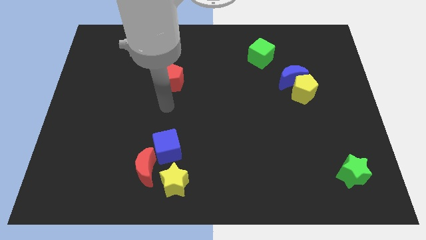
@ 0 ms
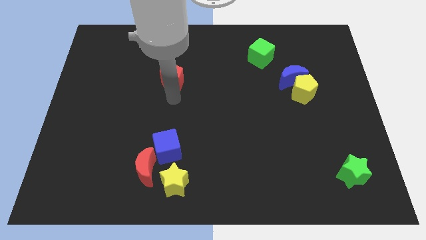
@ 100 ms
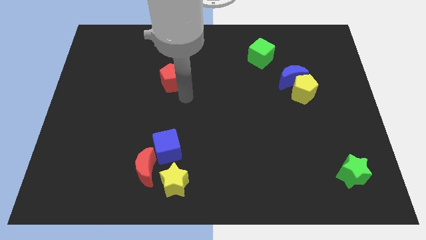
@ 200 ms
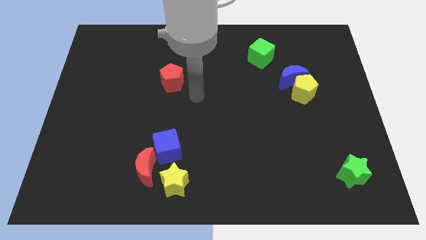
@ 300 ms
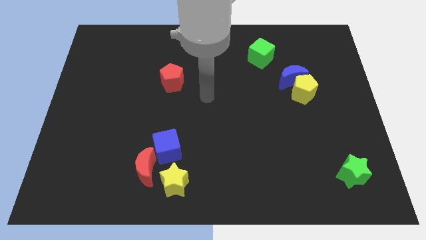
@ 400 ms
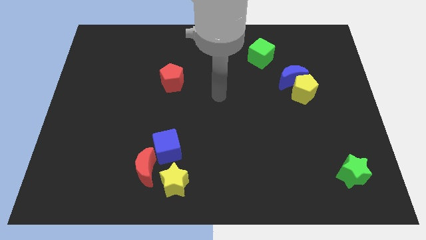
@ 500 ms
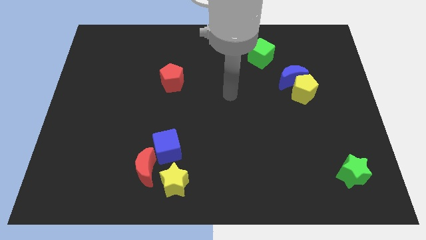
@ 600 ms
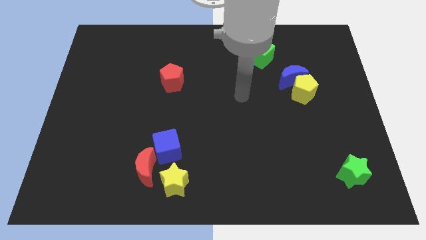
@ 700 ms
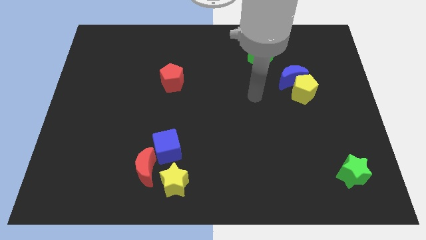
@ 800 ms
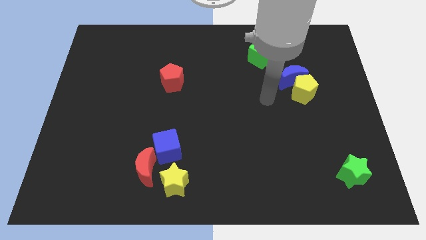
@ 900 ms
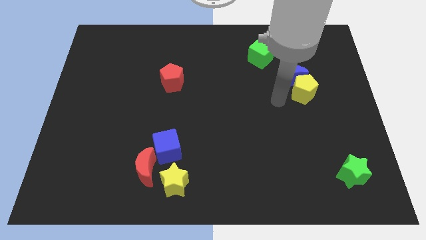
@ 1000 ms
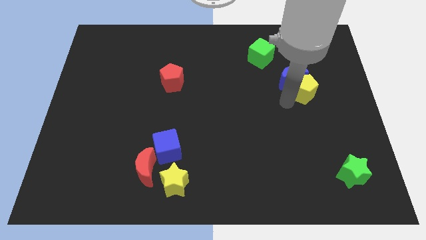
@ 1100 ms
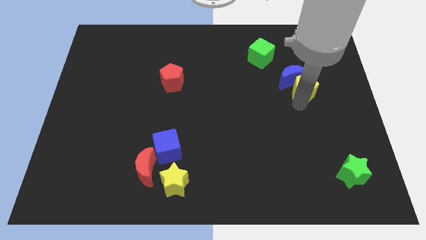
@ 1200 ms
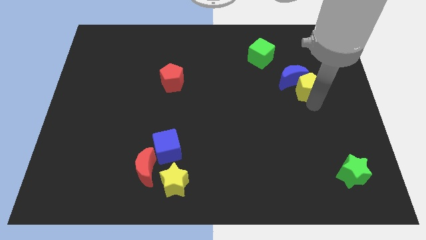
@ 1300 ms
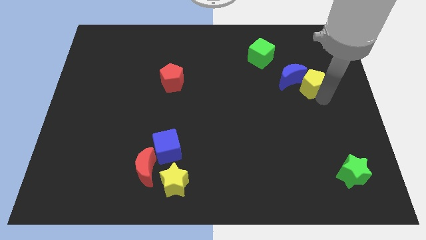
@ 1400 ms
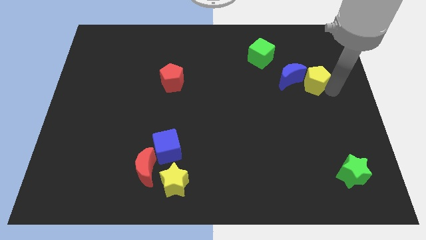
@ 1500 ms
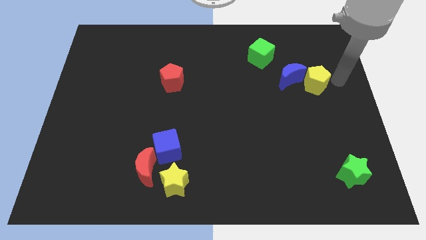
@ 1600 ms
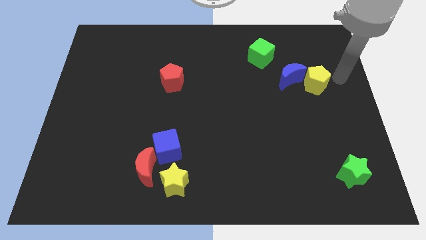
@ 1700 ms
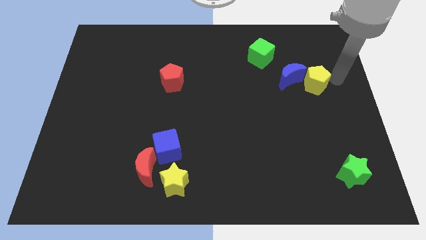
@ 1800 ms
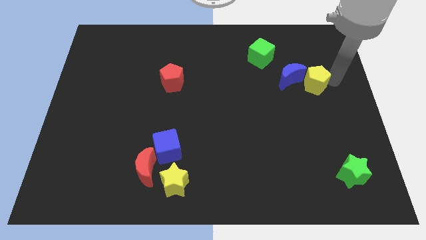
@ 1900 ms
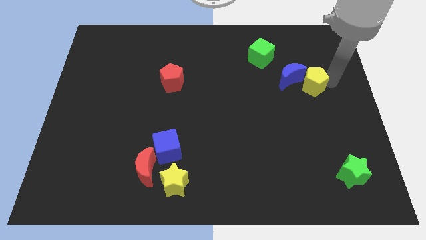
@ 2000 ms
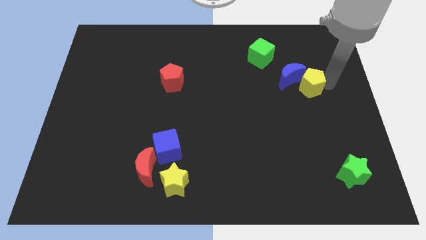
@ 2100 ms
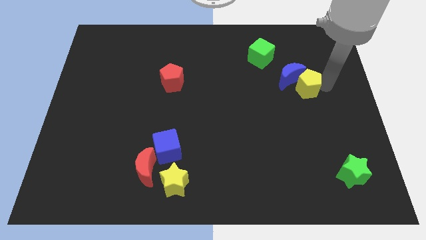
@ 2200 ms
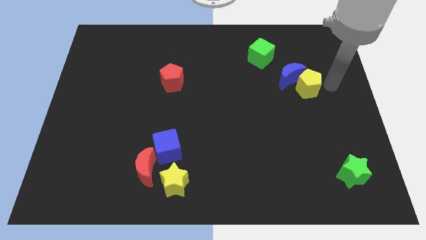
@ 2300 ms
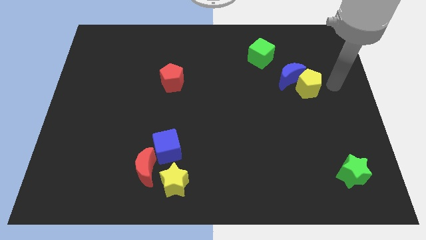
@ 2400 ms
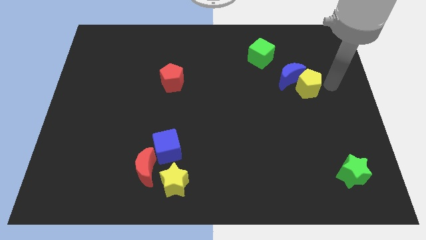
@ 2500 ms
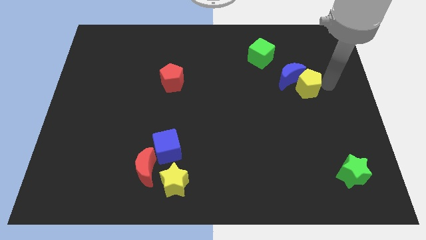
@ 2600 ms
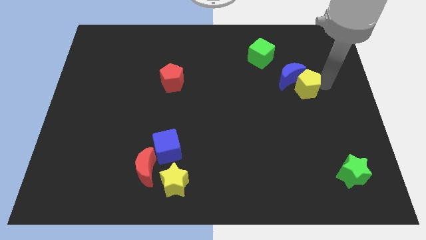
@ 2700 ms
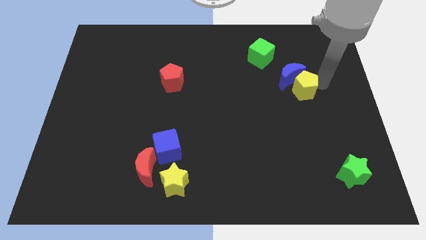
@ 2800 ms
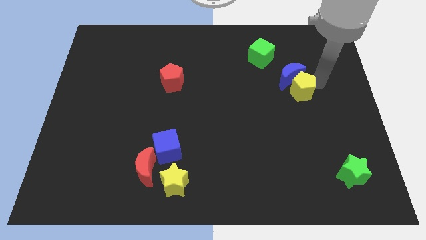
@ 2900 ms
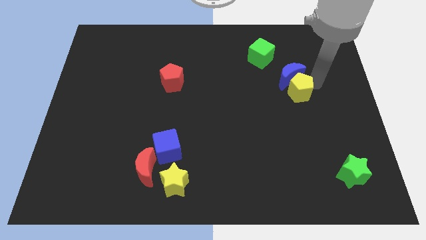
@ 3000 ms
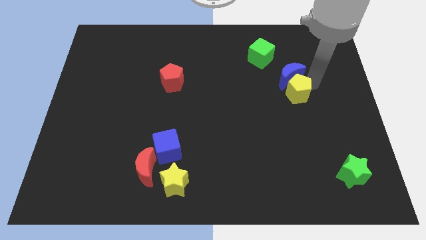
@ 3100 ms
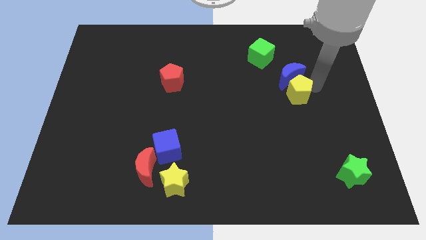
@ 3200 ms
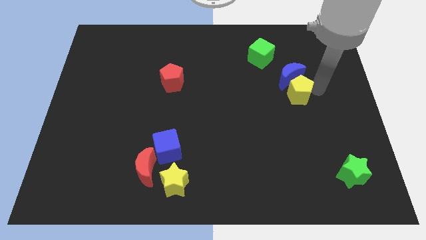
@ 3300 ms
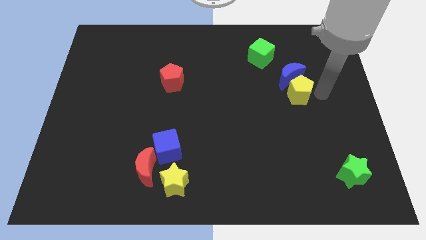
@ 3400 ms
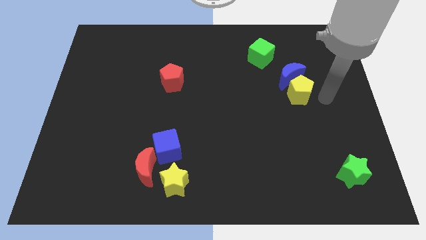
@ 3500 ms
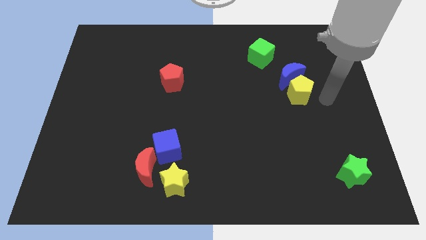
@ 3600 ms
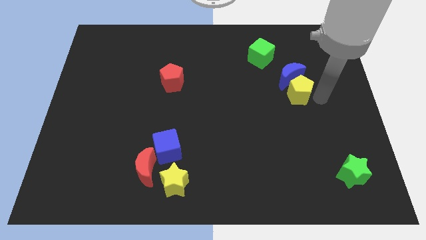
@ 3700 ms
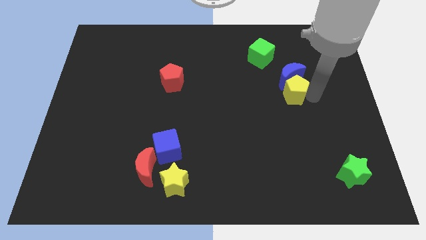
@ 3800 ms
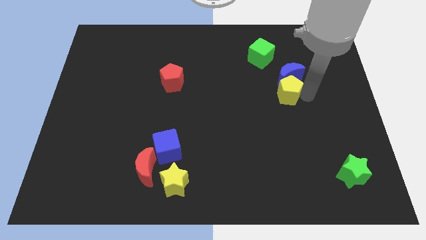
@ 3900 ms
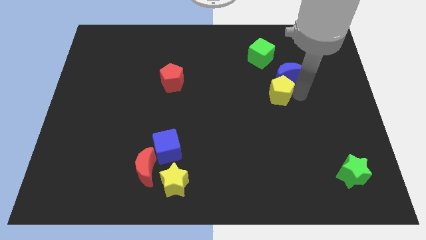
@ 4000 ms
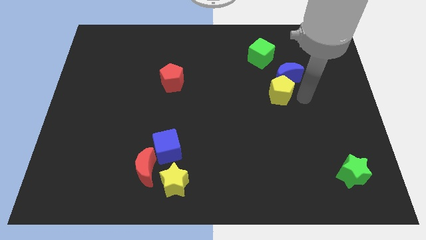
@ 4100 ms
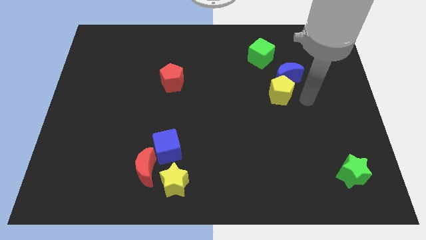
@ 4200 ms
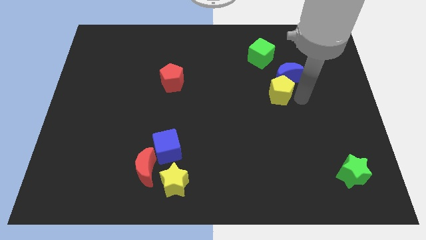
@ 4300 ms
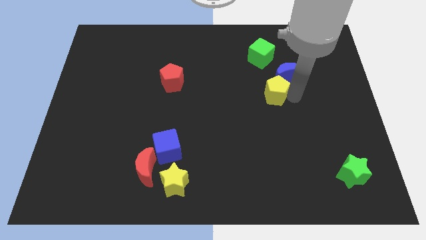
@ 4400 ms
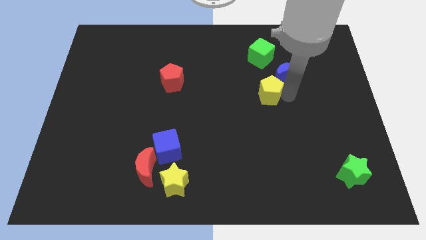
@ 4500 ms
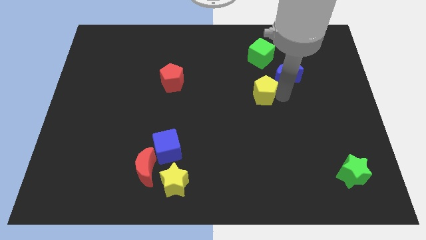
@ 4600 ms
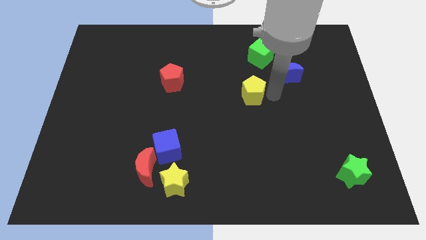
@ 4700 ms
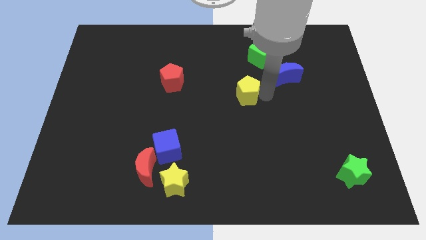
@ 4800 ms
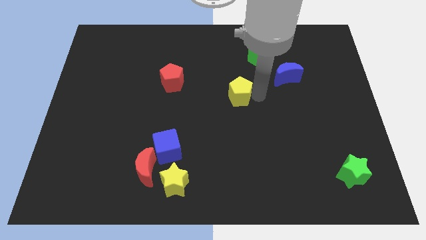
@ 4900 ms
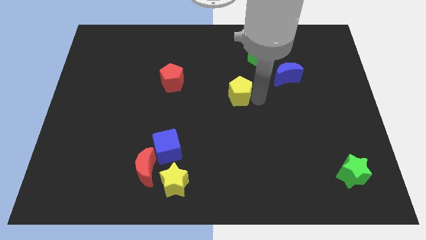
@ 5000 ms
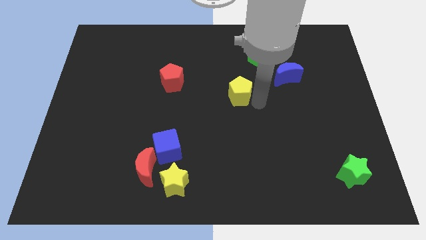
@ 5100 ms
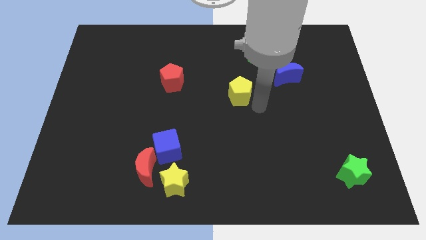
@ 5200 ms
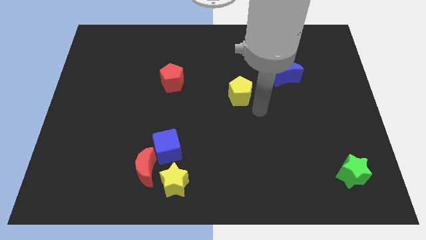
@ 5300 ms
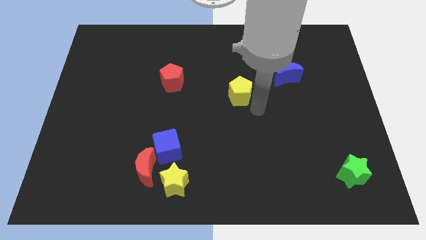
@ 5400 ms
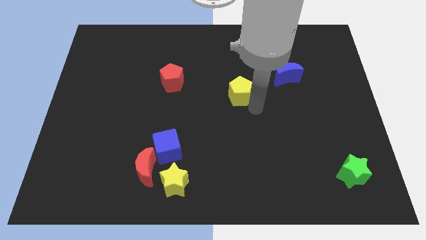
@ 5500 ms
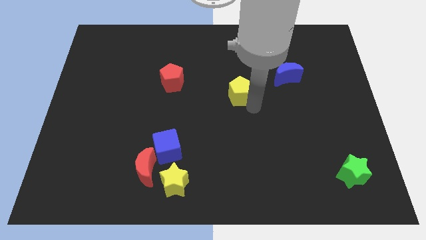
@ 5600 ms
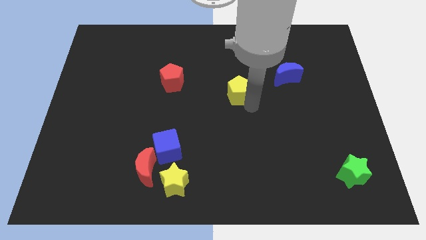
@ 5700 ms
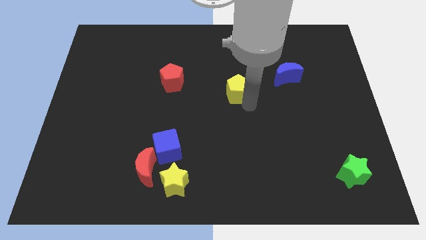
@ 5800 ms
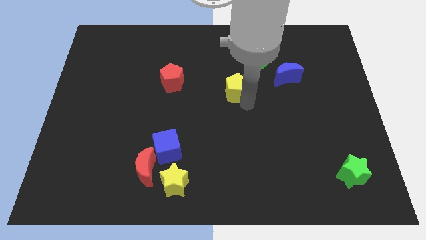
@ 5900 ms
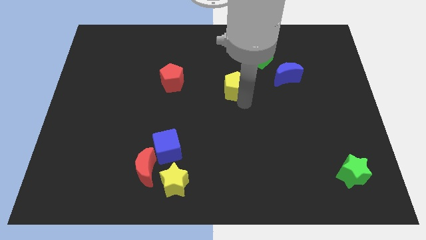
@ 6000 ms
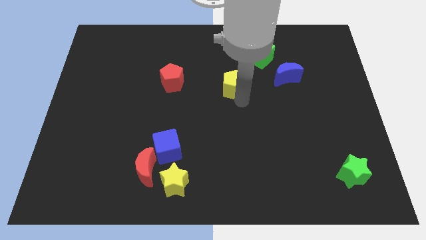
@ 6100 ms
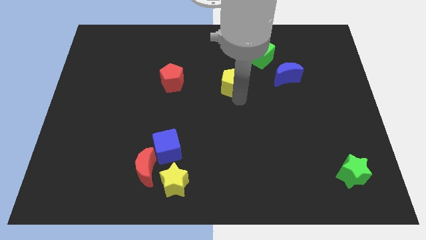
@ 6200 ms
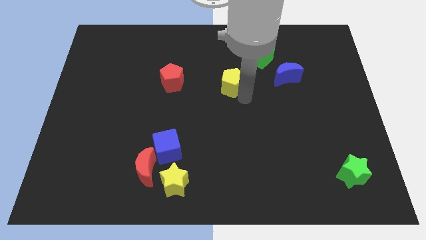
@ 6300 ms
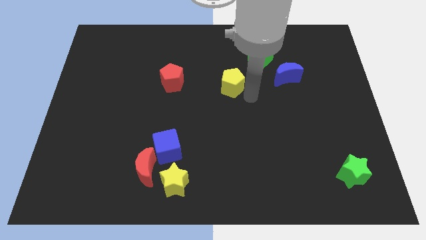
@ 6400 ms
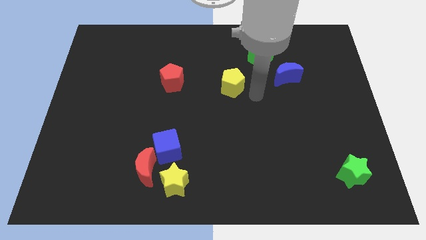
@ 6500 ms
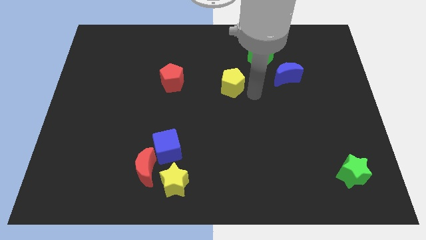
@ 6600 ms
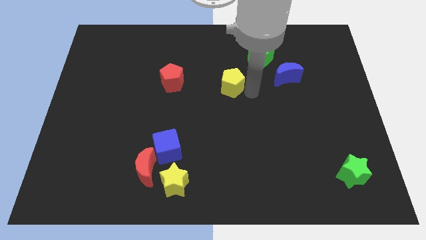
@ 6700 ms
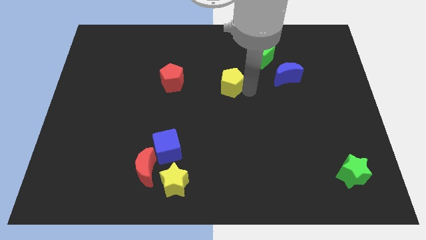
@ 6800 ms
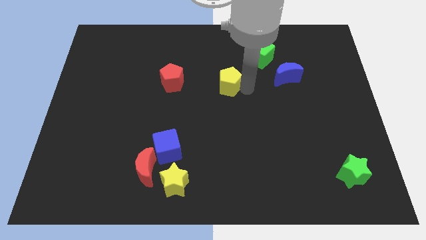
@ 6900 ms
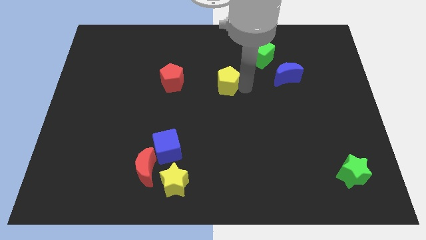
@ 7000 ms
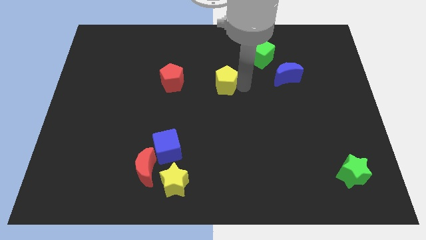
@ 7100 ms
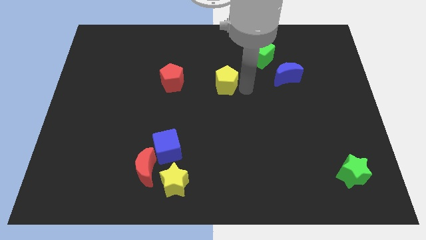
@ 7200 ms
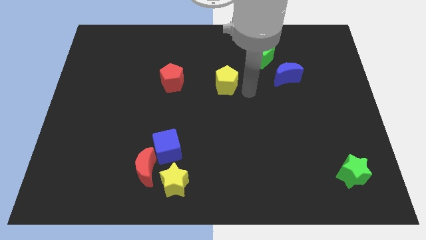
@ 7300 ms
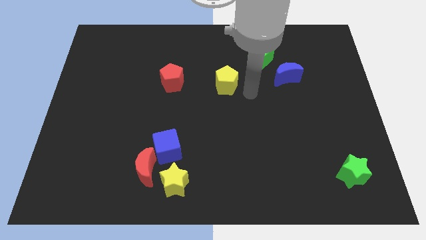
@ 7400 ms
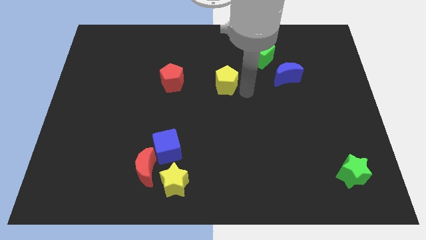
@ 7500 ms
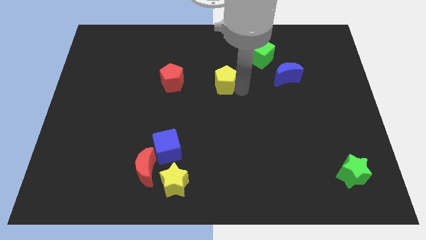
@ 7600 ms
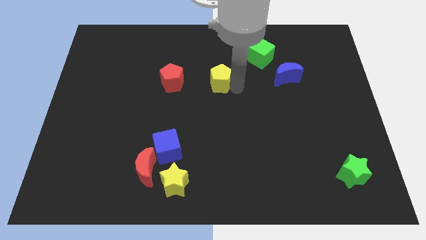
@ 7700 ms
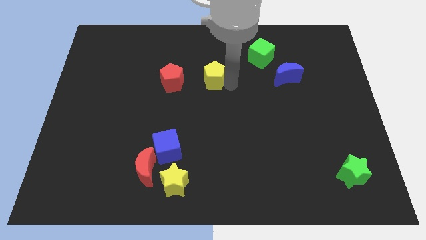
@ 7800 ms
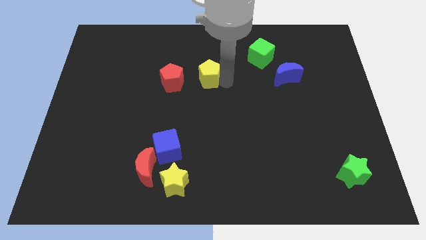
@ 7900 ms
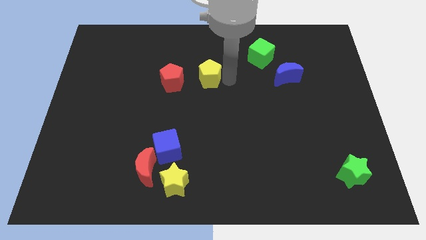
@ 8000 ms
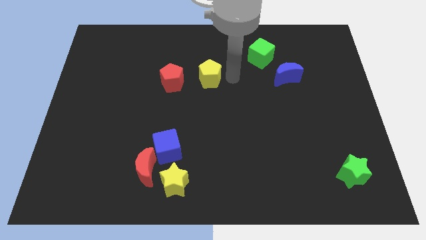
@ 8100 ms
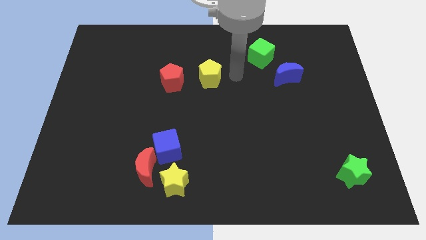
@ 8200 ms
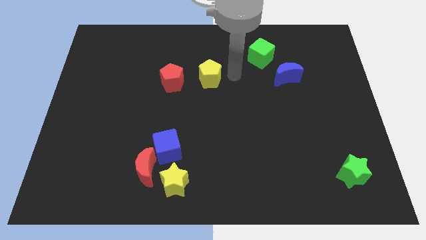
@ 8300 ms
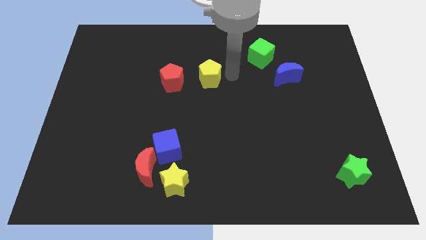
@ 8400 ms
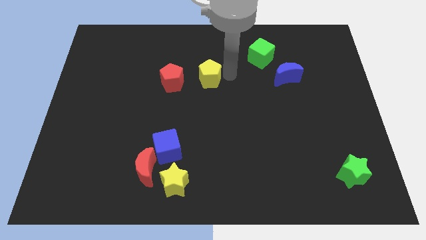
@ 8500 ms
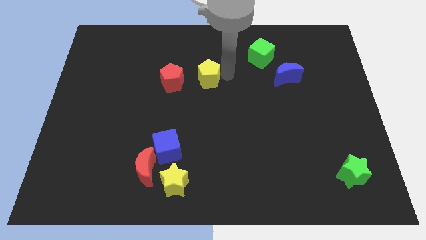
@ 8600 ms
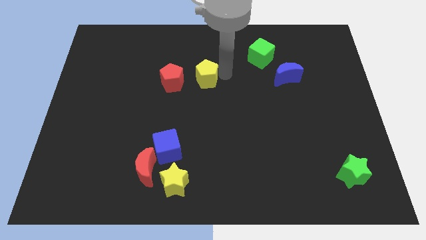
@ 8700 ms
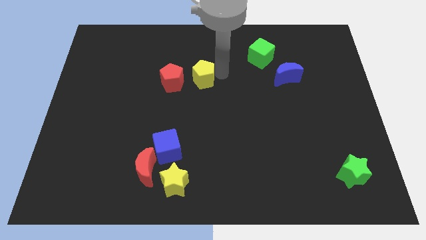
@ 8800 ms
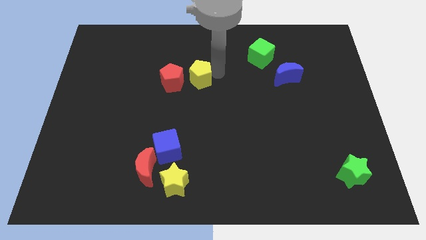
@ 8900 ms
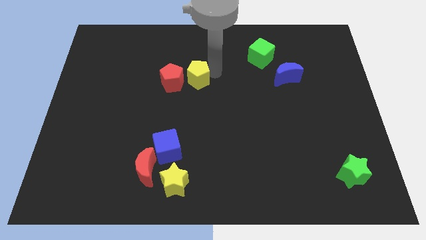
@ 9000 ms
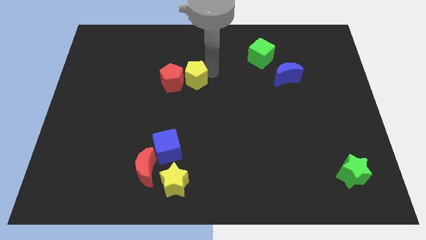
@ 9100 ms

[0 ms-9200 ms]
slide the yellow pentagon next to the red pentagon
